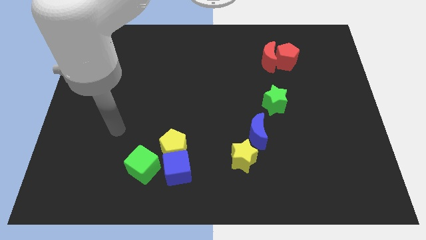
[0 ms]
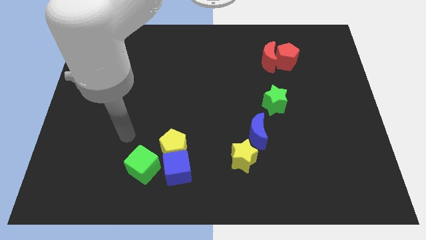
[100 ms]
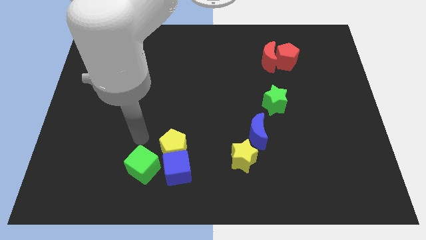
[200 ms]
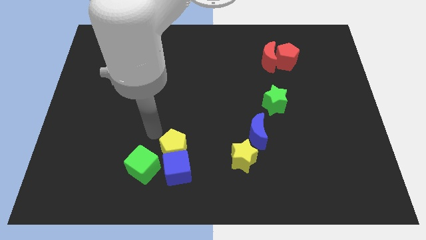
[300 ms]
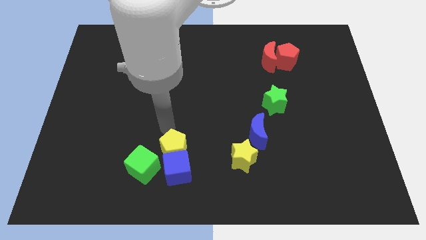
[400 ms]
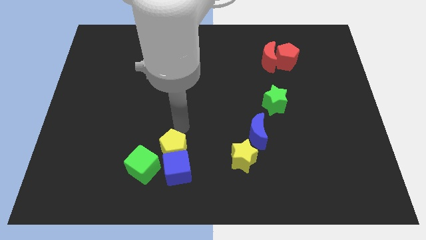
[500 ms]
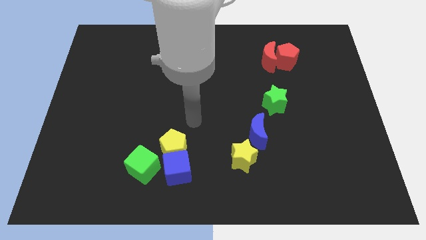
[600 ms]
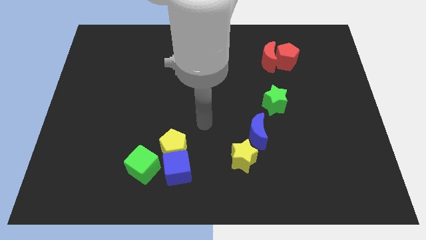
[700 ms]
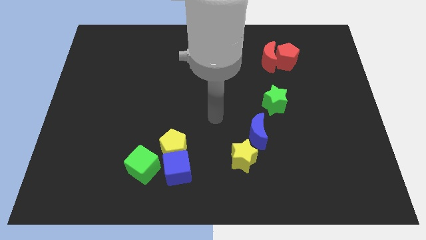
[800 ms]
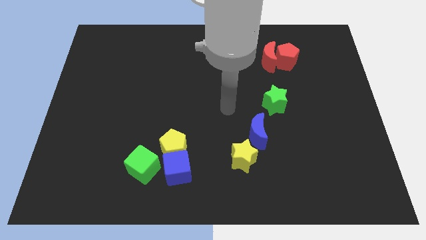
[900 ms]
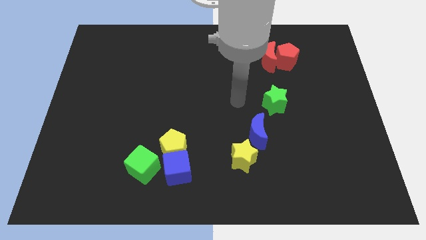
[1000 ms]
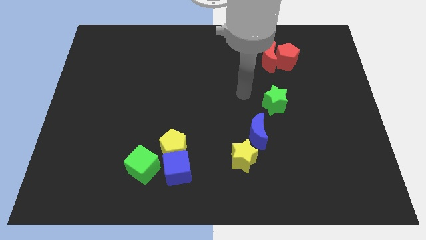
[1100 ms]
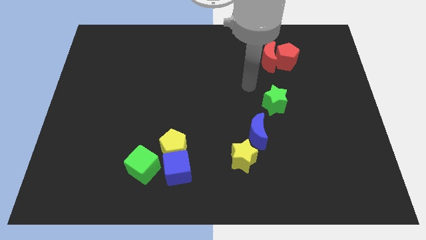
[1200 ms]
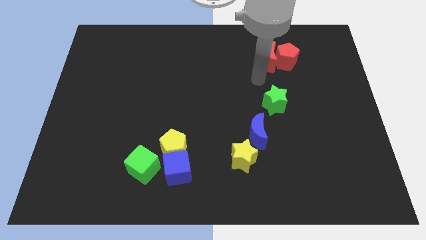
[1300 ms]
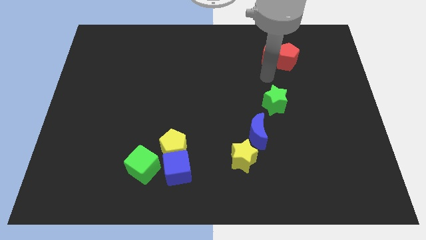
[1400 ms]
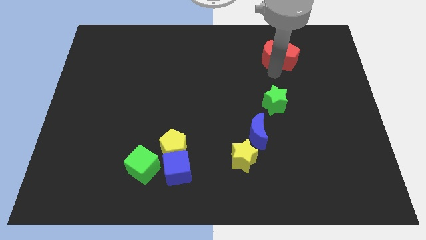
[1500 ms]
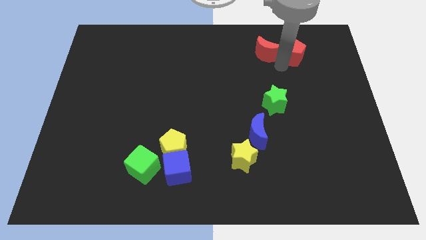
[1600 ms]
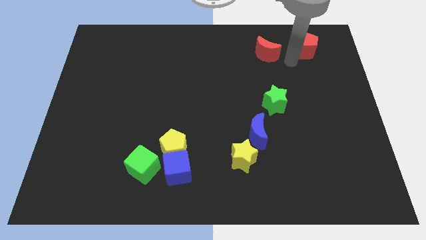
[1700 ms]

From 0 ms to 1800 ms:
move the red moon away from the red pentagon

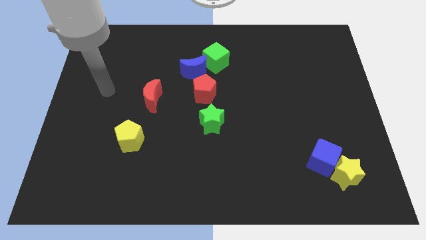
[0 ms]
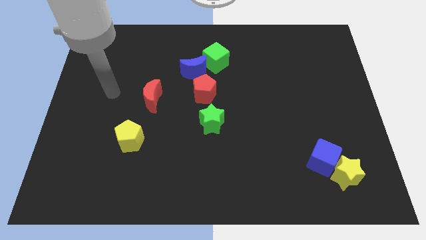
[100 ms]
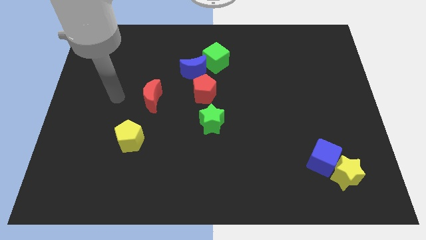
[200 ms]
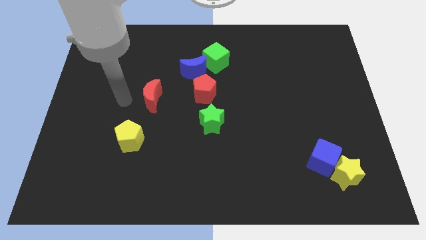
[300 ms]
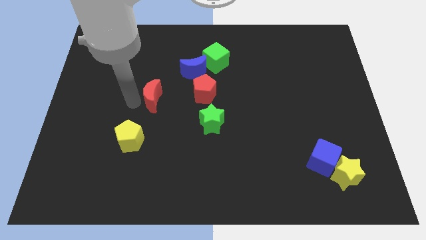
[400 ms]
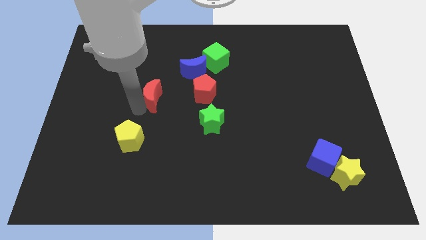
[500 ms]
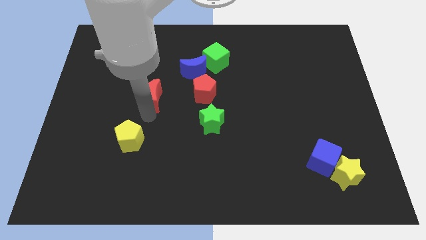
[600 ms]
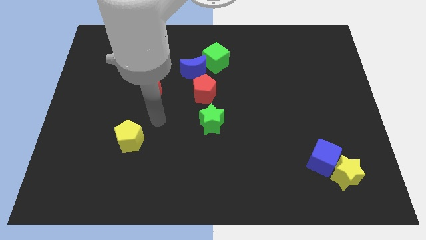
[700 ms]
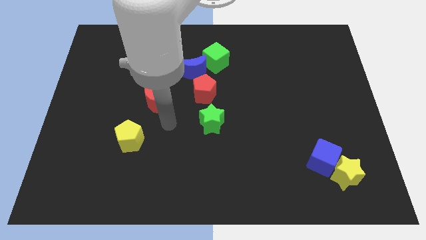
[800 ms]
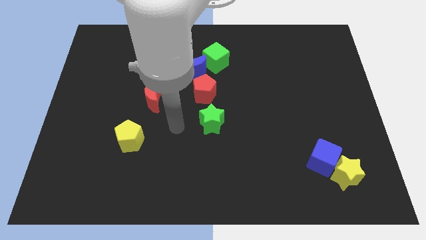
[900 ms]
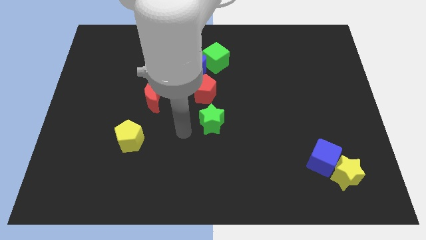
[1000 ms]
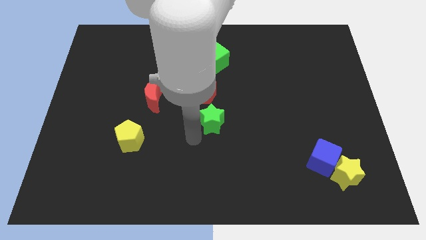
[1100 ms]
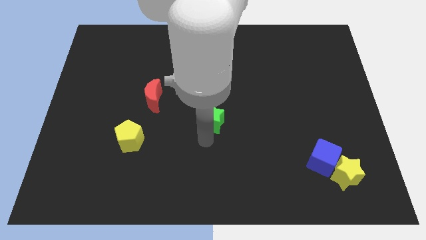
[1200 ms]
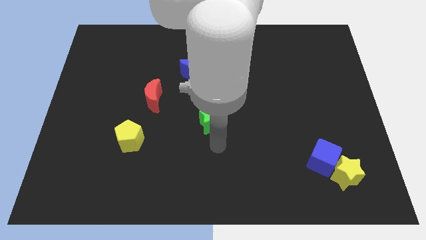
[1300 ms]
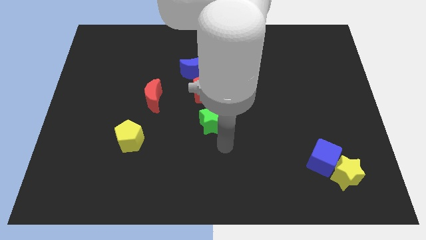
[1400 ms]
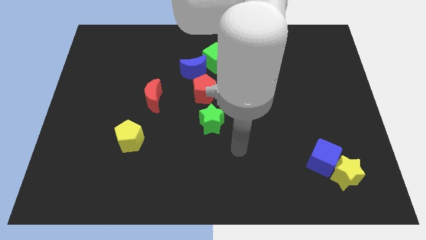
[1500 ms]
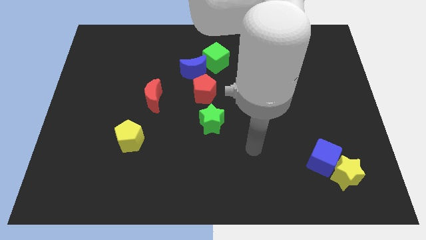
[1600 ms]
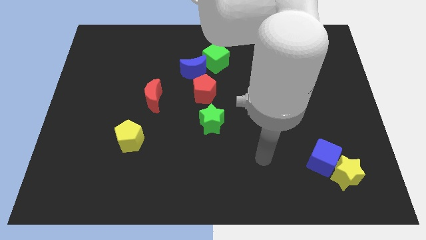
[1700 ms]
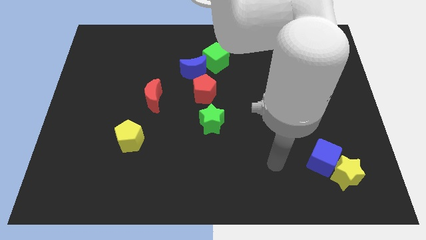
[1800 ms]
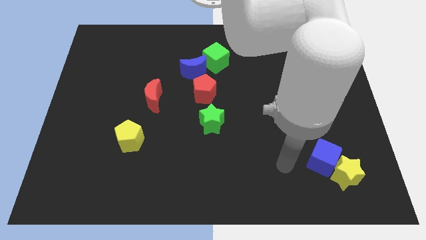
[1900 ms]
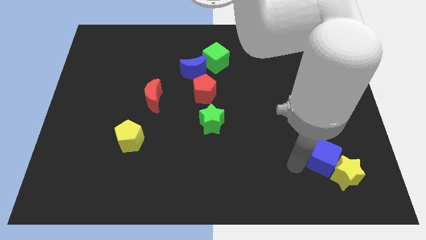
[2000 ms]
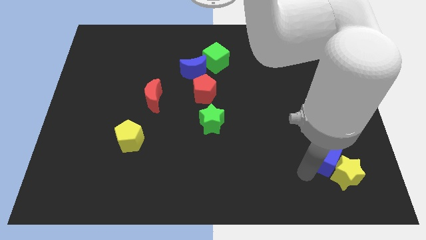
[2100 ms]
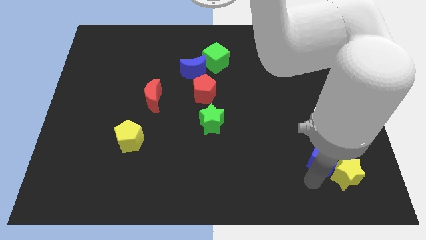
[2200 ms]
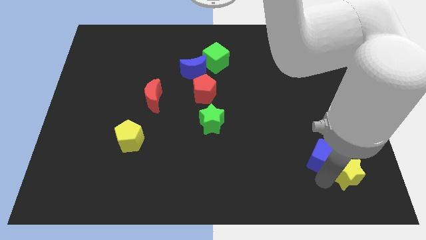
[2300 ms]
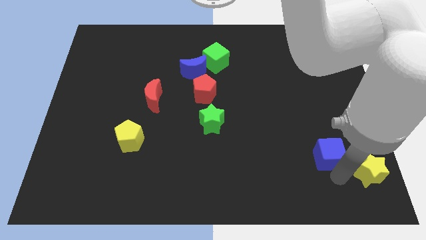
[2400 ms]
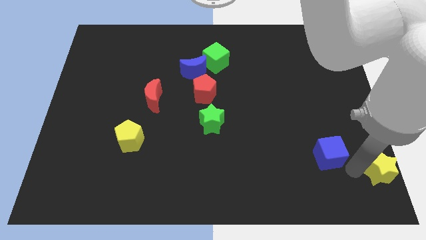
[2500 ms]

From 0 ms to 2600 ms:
separate the blue cube from the yellow star

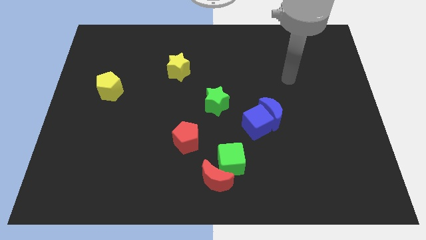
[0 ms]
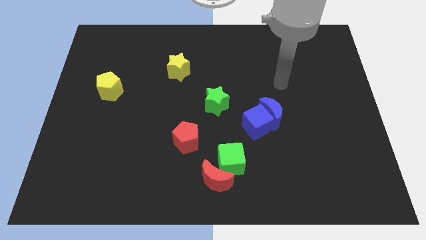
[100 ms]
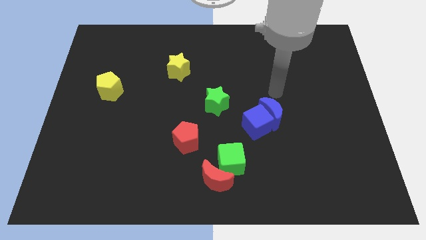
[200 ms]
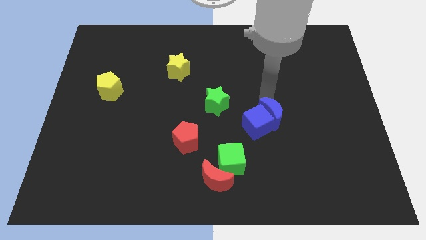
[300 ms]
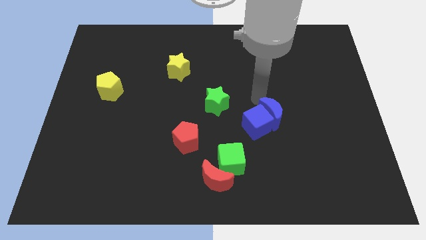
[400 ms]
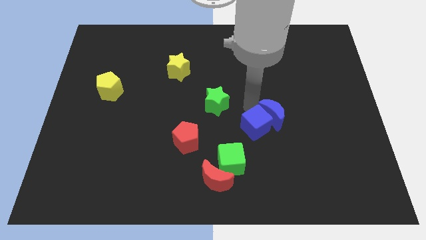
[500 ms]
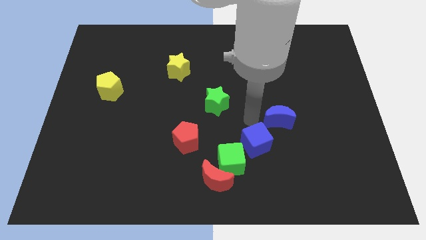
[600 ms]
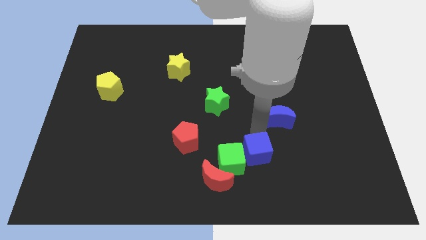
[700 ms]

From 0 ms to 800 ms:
pull the blue moon apart from the blue cube

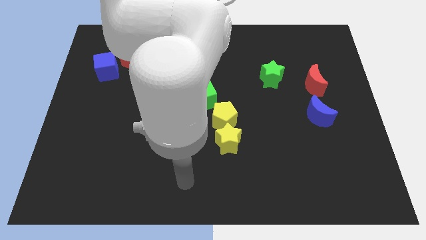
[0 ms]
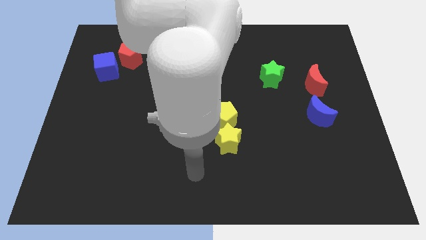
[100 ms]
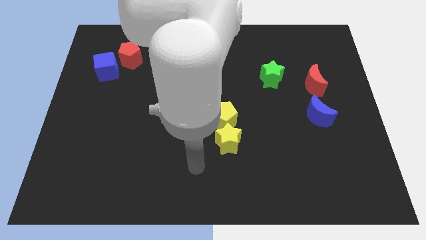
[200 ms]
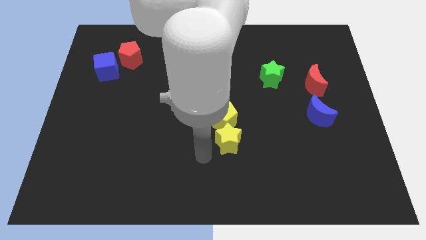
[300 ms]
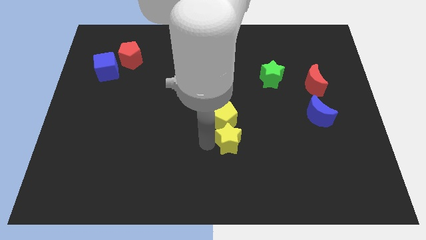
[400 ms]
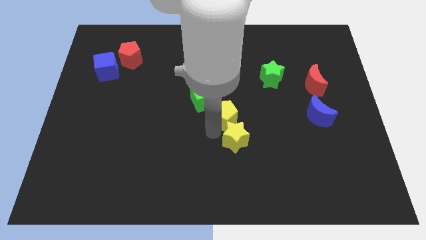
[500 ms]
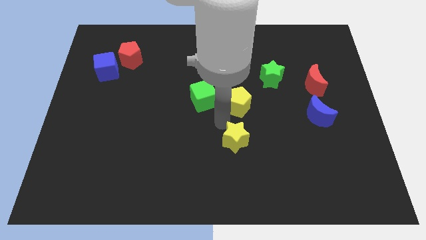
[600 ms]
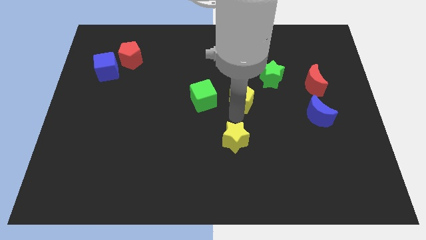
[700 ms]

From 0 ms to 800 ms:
separate the yellow star from the yellow pentagon

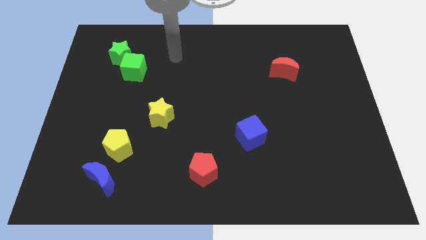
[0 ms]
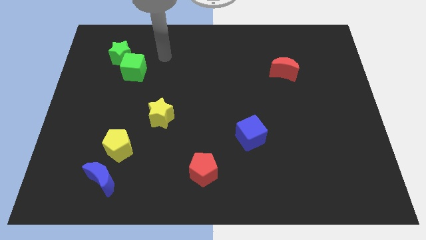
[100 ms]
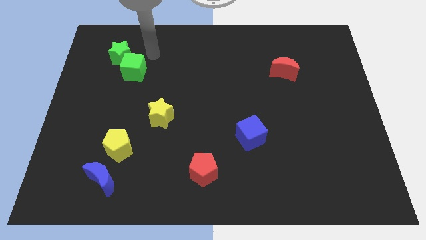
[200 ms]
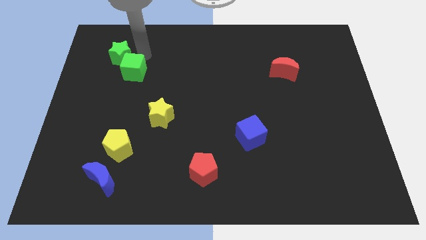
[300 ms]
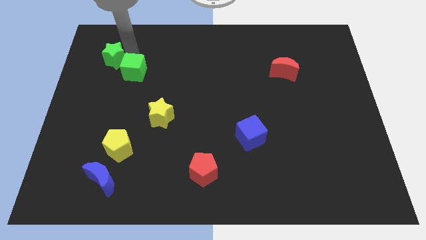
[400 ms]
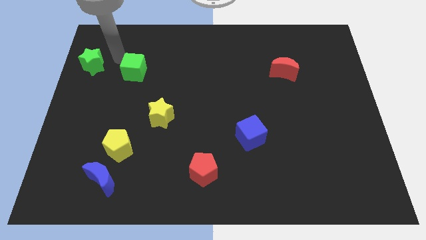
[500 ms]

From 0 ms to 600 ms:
pull the green cube apart from the green star

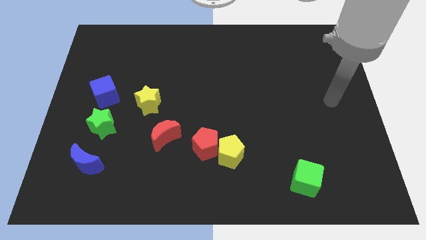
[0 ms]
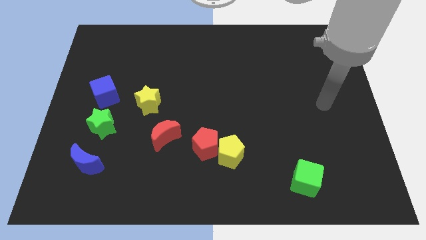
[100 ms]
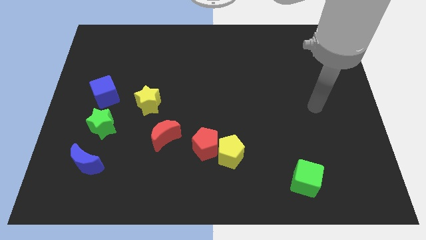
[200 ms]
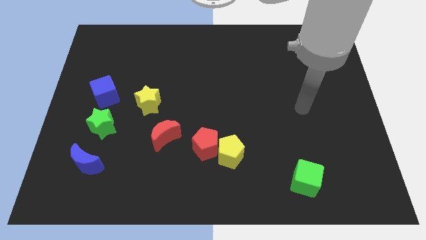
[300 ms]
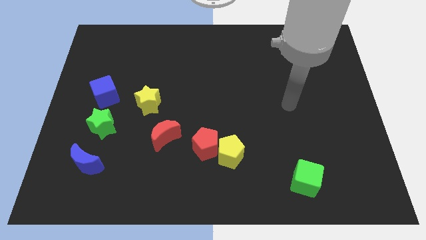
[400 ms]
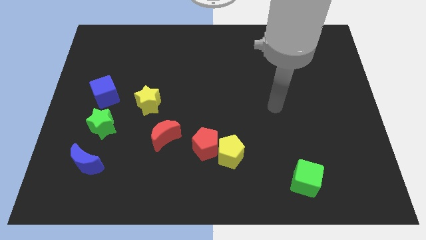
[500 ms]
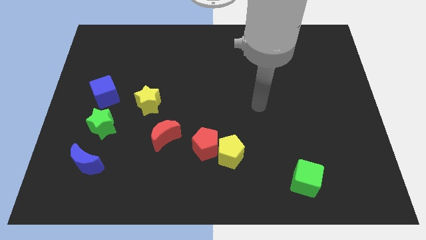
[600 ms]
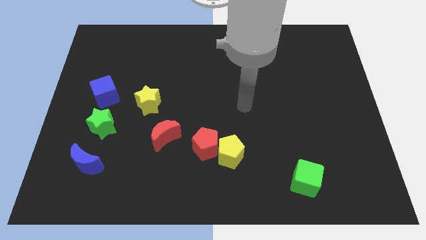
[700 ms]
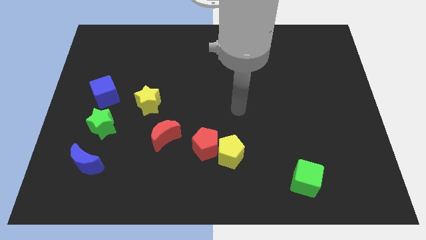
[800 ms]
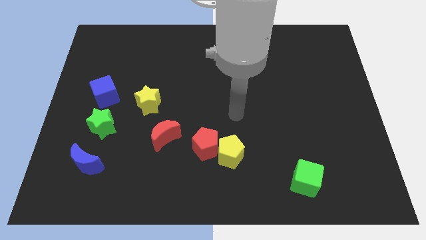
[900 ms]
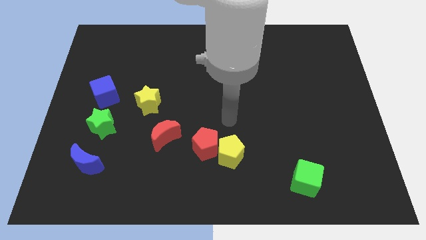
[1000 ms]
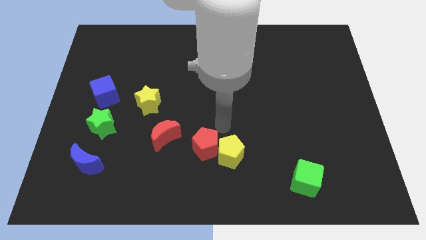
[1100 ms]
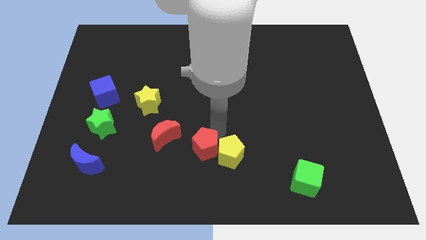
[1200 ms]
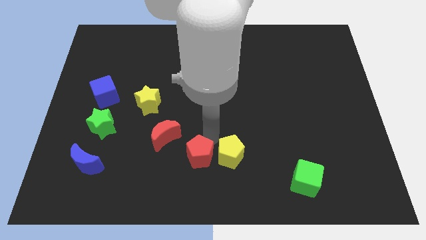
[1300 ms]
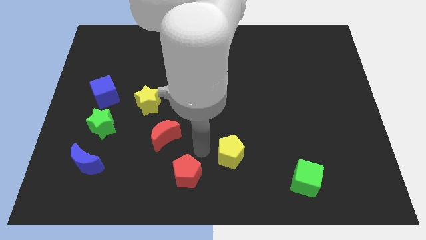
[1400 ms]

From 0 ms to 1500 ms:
pull the yellow pentagon apart from the red pentagon

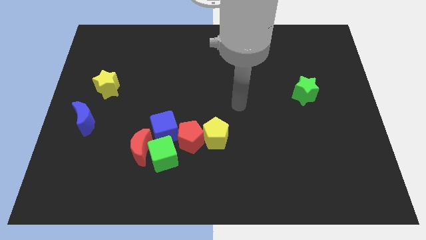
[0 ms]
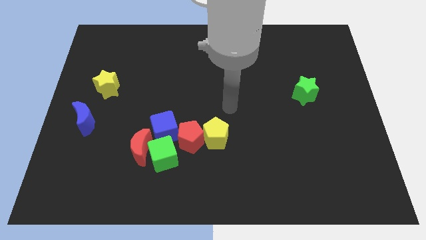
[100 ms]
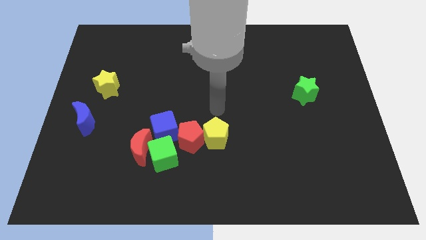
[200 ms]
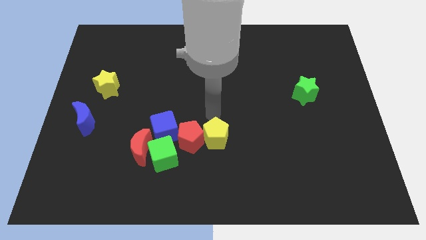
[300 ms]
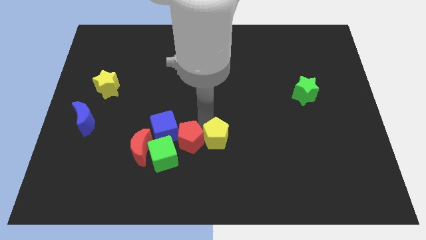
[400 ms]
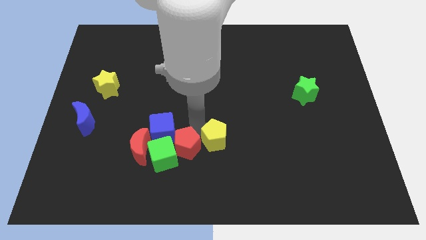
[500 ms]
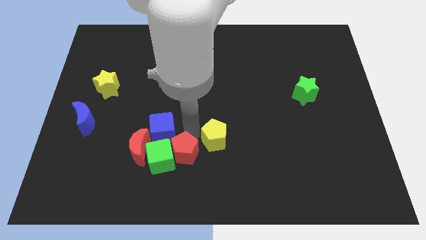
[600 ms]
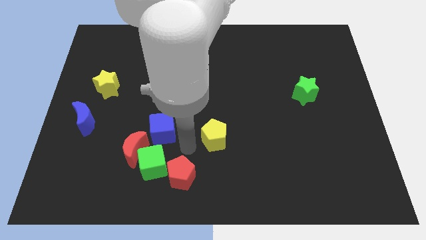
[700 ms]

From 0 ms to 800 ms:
move the yellow pentagon away from the red pentagon

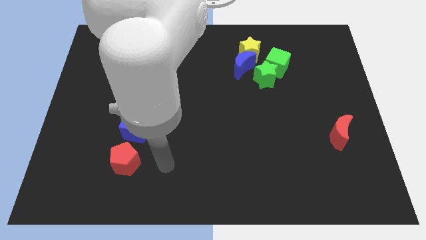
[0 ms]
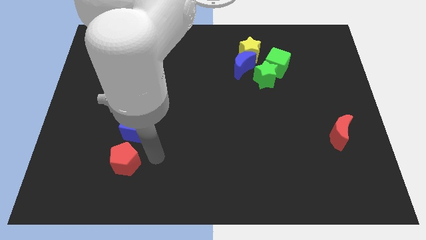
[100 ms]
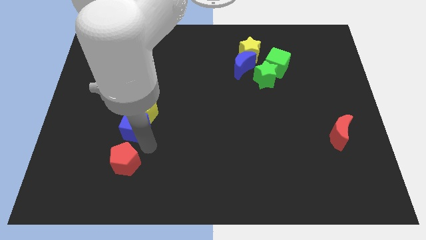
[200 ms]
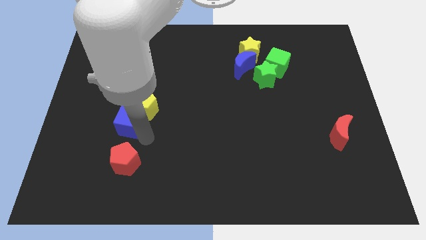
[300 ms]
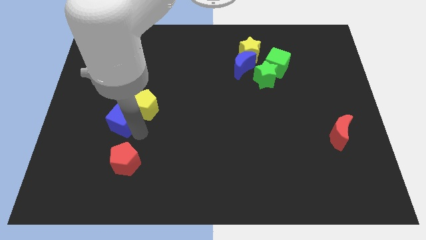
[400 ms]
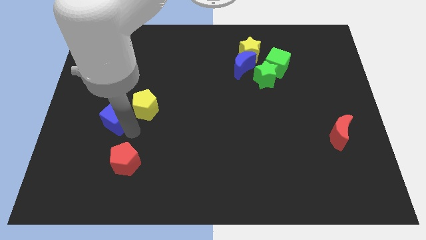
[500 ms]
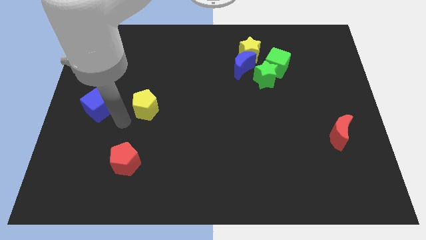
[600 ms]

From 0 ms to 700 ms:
separate the yellow pentagon from the blue cube
